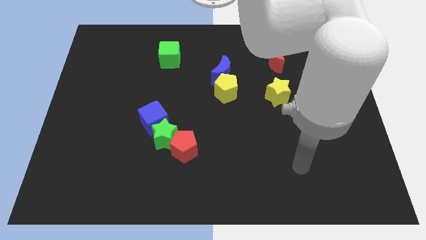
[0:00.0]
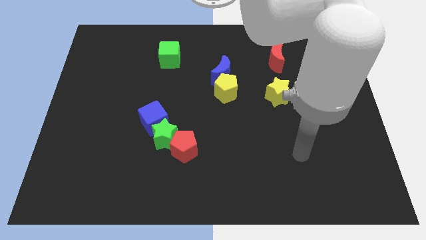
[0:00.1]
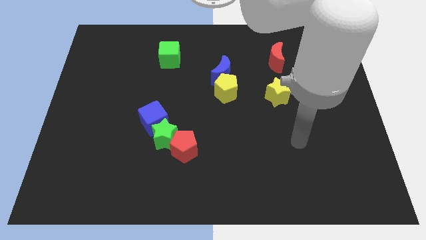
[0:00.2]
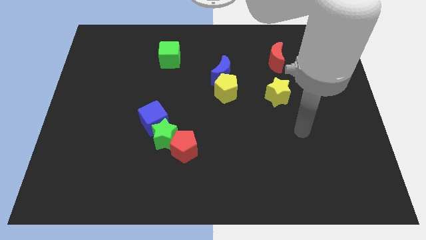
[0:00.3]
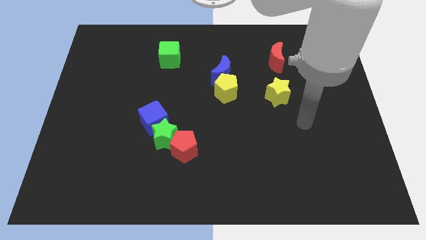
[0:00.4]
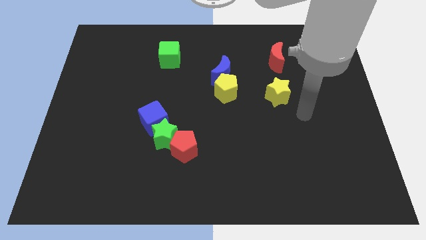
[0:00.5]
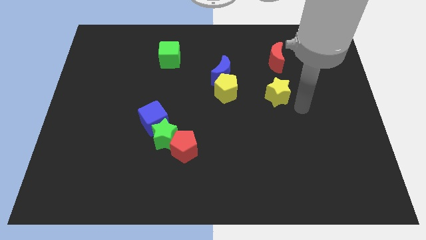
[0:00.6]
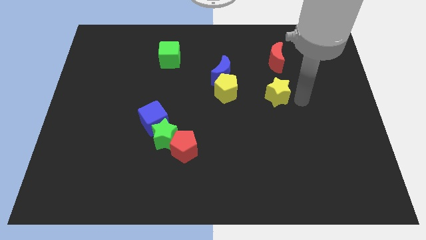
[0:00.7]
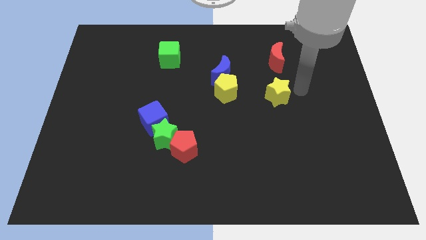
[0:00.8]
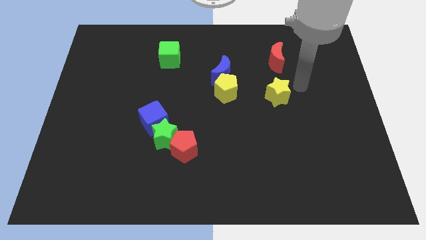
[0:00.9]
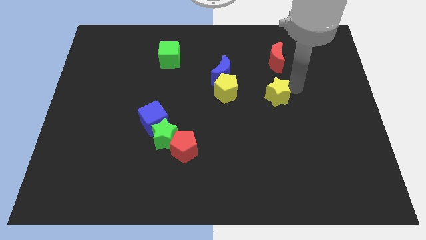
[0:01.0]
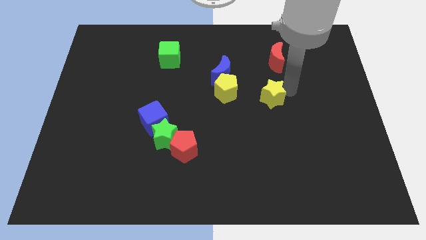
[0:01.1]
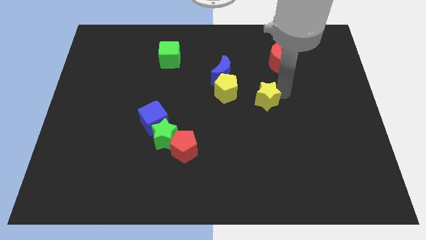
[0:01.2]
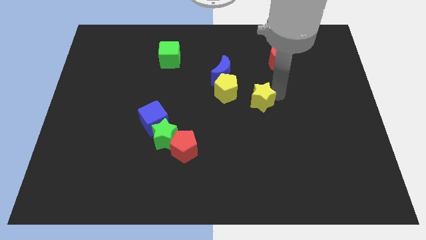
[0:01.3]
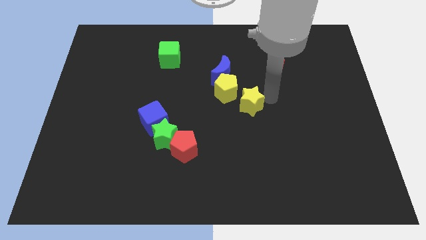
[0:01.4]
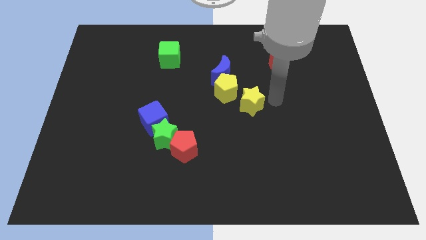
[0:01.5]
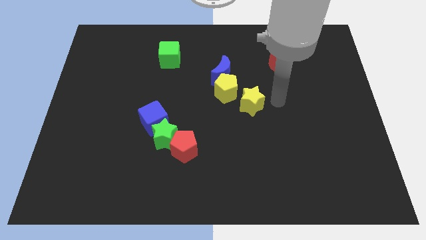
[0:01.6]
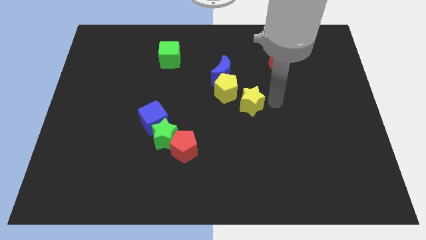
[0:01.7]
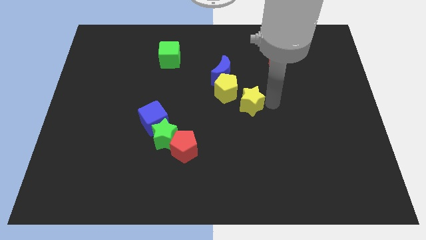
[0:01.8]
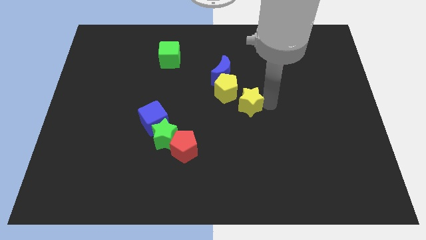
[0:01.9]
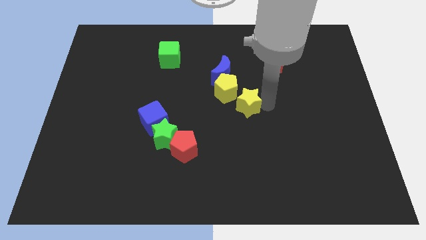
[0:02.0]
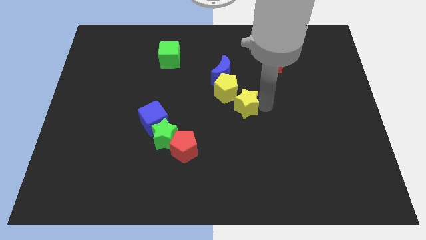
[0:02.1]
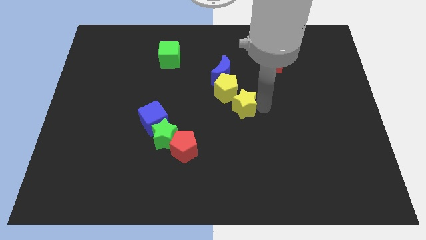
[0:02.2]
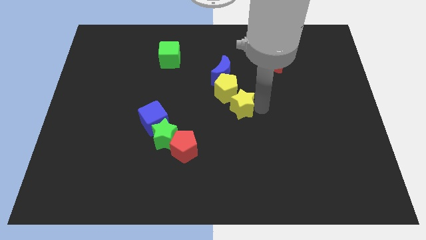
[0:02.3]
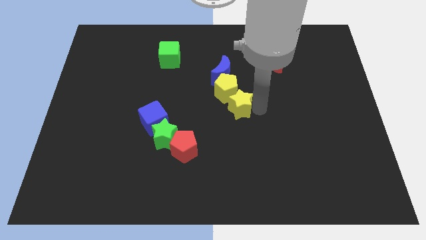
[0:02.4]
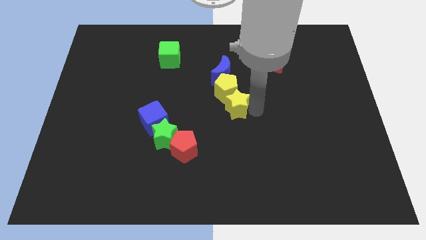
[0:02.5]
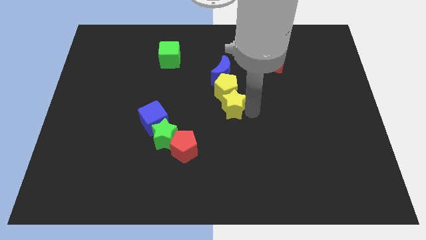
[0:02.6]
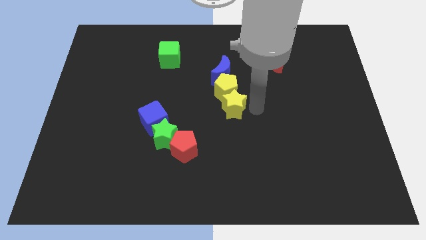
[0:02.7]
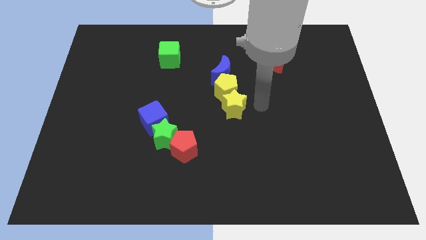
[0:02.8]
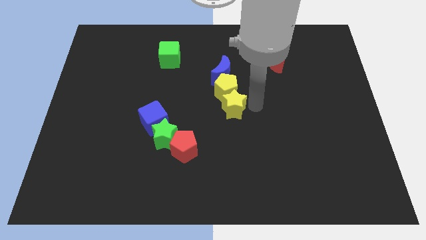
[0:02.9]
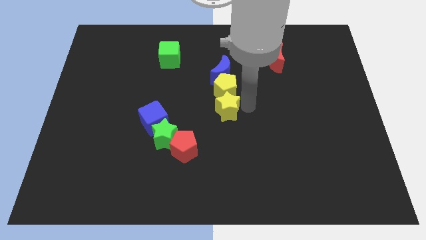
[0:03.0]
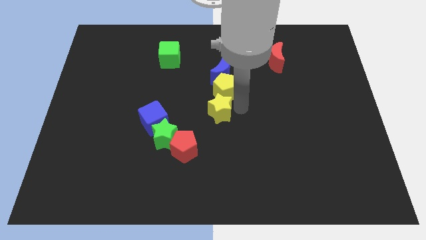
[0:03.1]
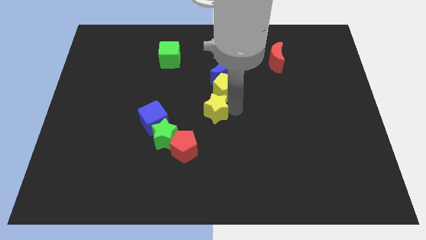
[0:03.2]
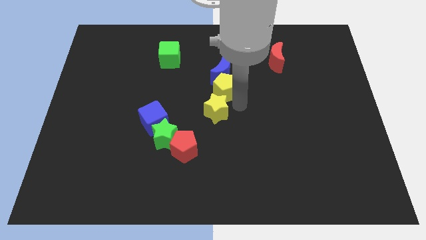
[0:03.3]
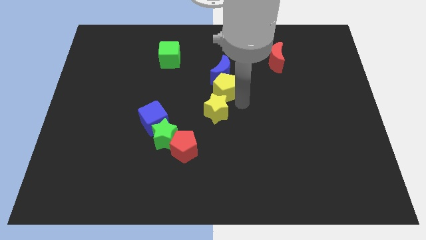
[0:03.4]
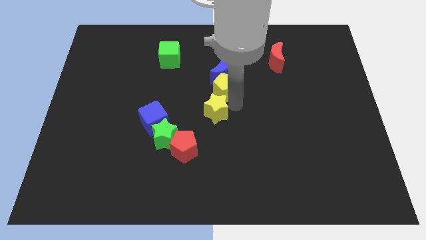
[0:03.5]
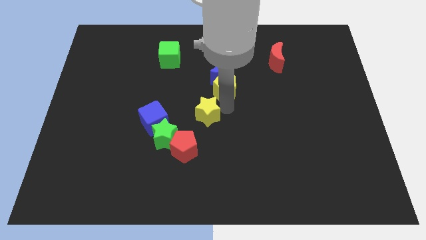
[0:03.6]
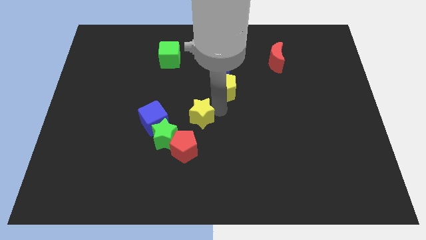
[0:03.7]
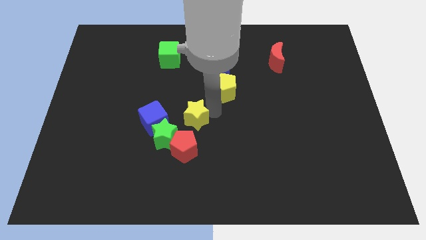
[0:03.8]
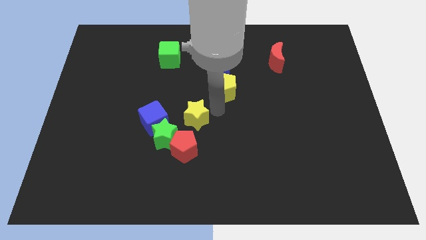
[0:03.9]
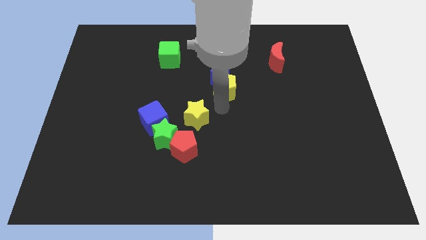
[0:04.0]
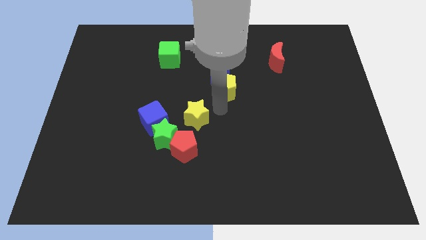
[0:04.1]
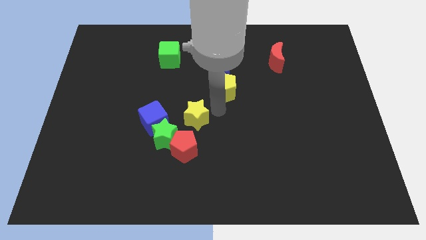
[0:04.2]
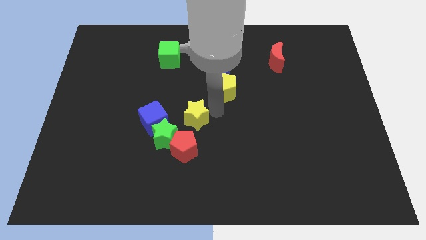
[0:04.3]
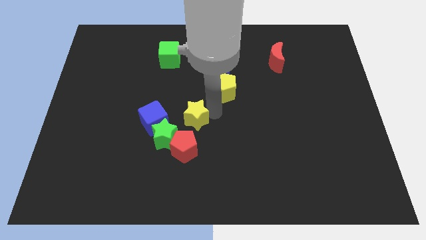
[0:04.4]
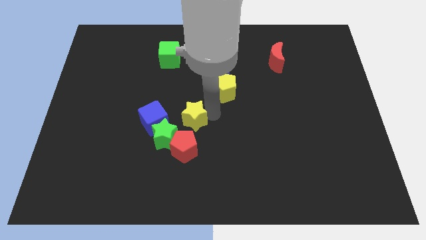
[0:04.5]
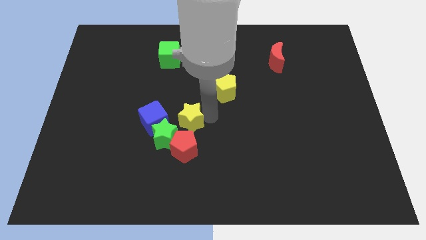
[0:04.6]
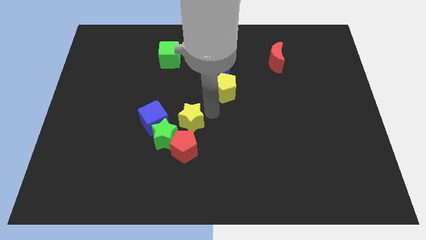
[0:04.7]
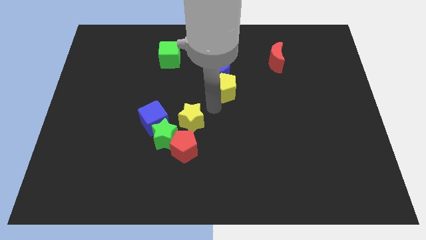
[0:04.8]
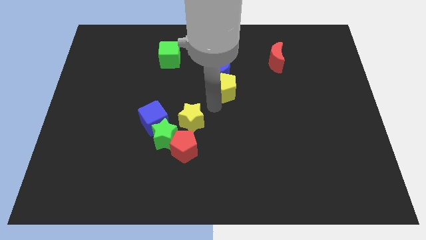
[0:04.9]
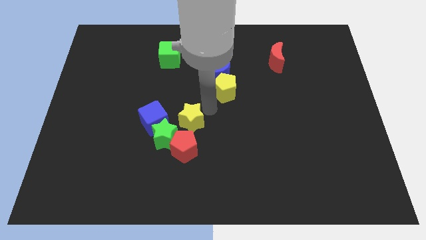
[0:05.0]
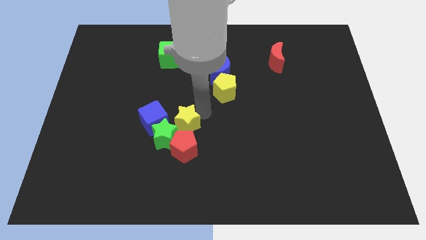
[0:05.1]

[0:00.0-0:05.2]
move the yellow star close to the green star

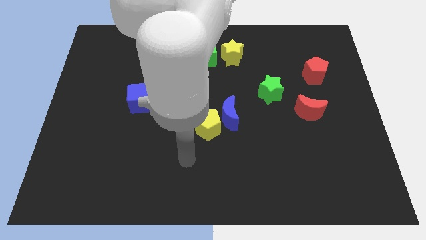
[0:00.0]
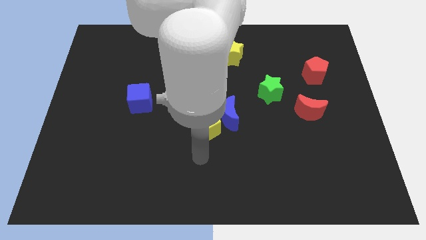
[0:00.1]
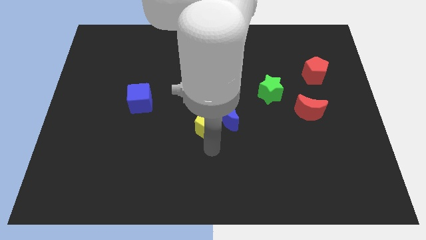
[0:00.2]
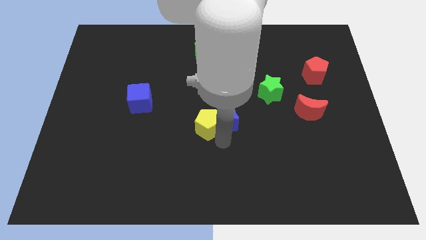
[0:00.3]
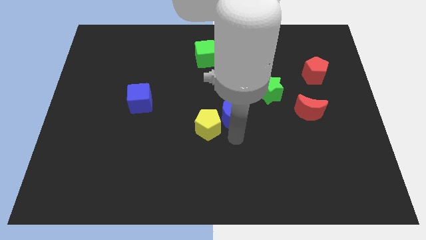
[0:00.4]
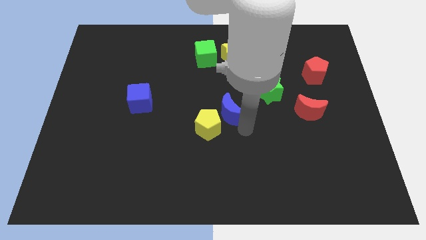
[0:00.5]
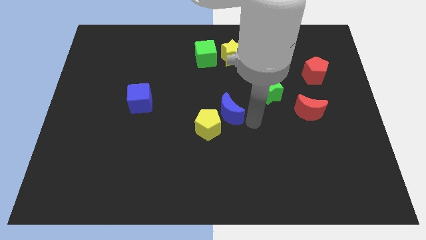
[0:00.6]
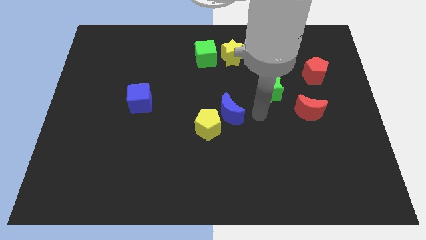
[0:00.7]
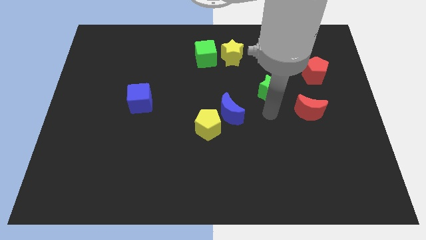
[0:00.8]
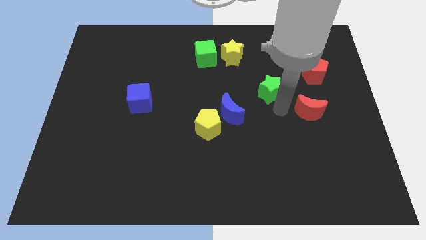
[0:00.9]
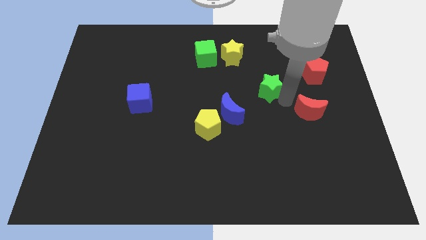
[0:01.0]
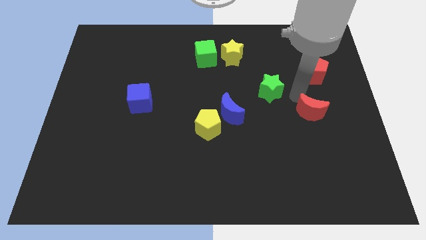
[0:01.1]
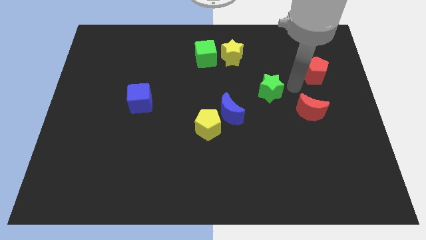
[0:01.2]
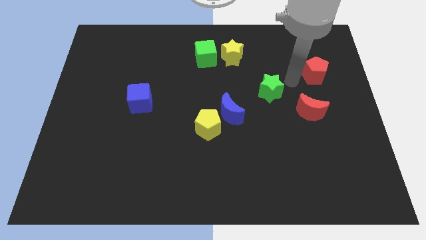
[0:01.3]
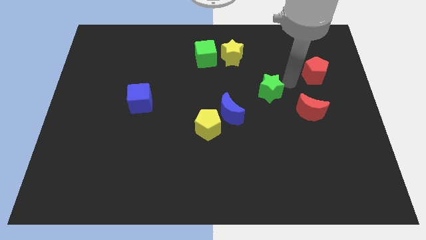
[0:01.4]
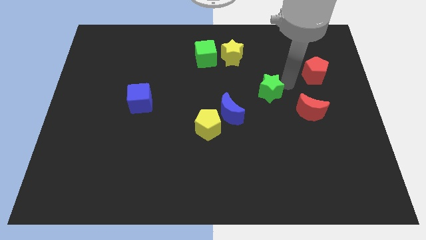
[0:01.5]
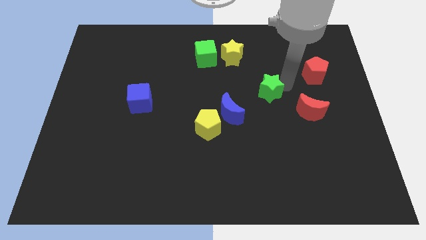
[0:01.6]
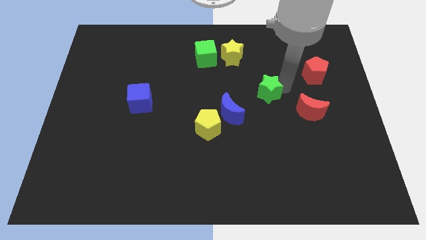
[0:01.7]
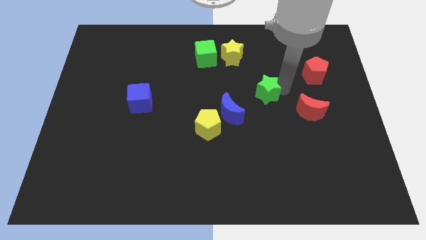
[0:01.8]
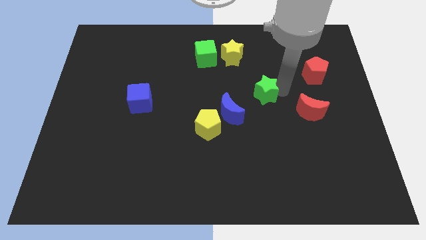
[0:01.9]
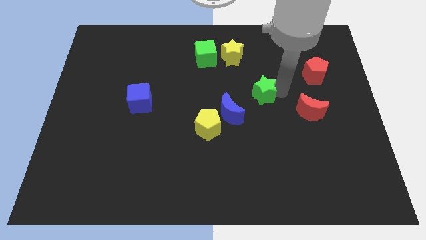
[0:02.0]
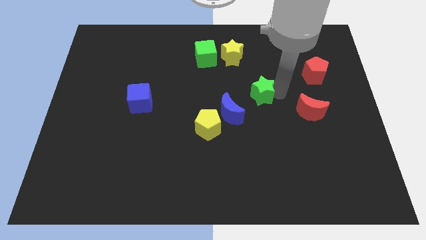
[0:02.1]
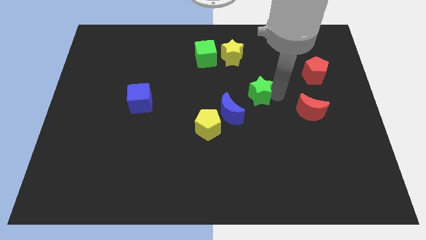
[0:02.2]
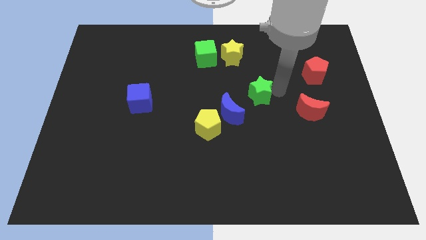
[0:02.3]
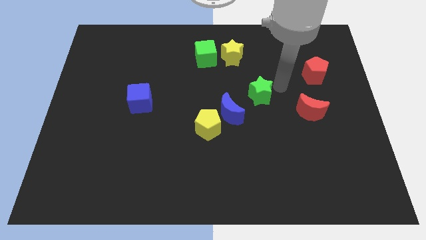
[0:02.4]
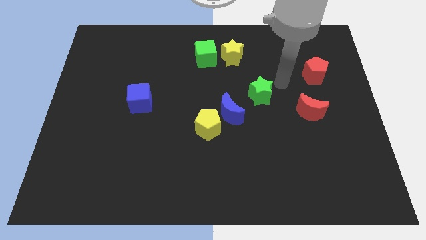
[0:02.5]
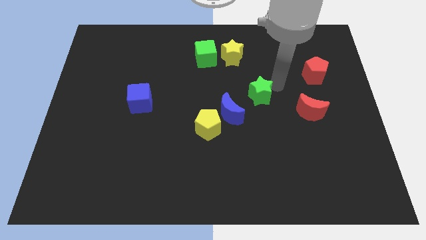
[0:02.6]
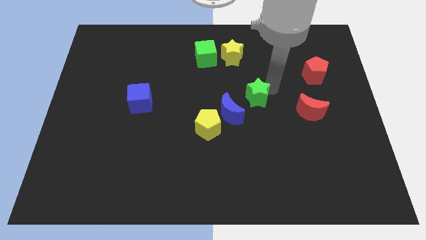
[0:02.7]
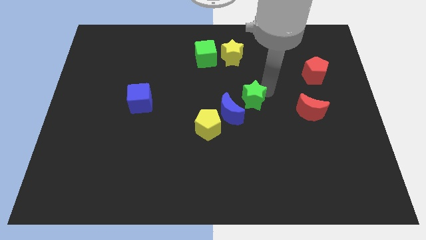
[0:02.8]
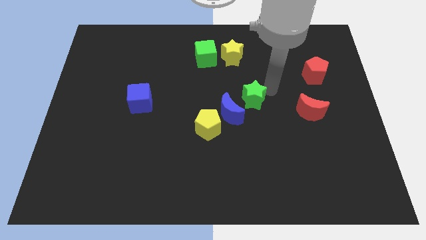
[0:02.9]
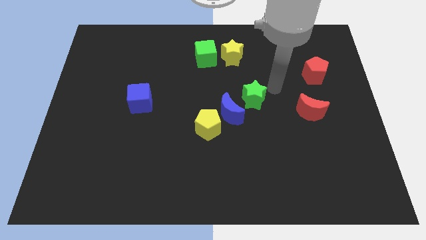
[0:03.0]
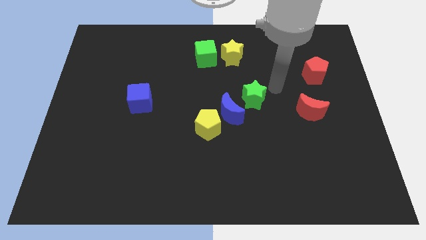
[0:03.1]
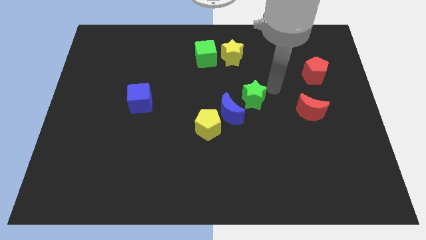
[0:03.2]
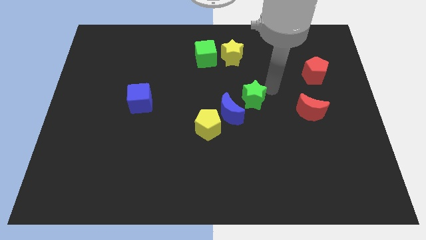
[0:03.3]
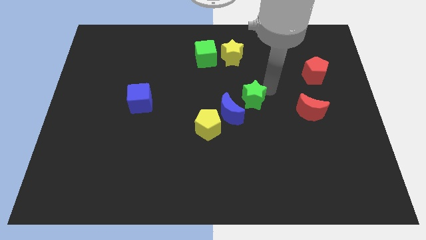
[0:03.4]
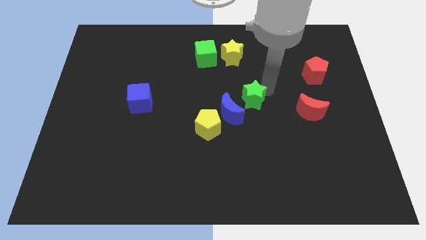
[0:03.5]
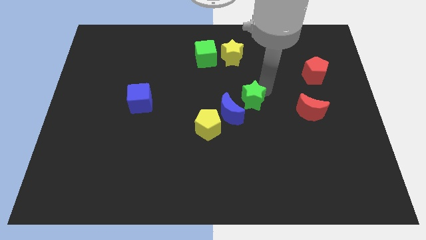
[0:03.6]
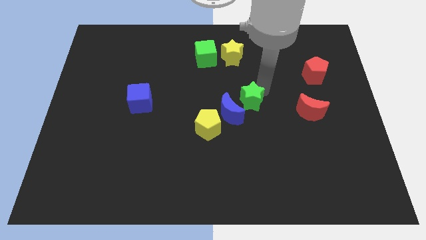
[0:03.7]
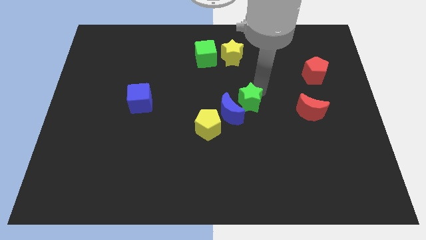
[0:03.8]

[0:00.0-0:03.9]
move the green star towards the blue moon
